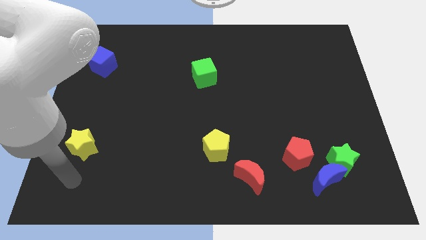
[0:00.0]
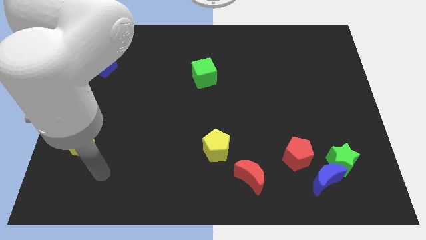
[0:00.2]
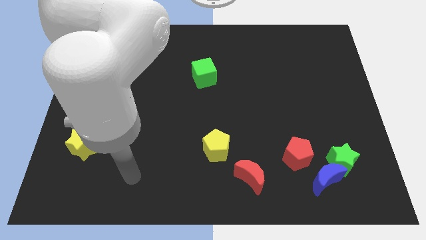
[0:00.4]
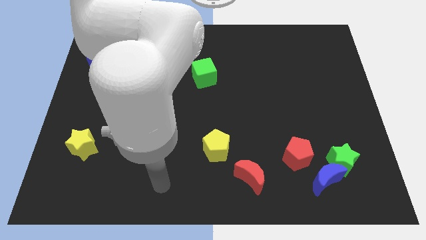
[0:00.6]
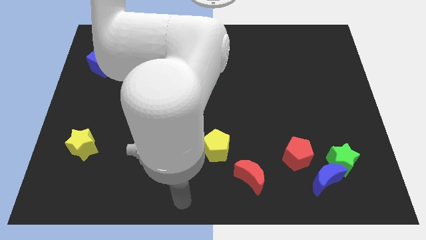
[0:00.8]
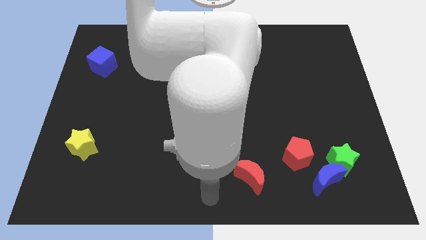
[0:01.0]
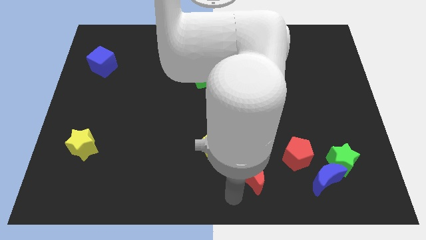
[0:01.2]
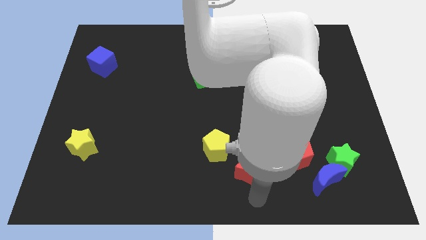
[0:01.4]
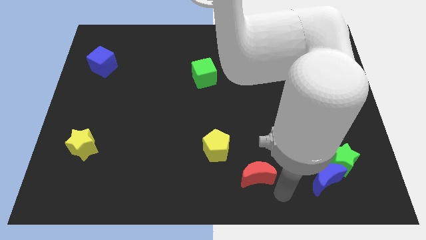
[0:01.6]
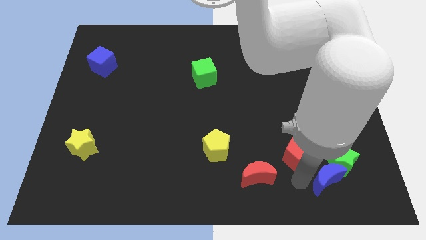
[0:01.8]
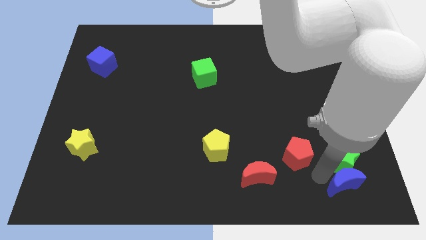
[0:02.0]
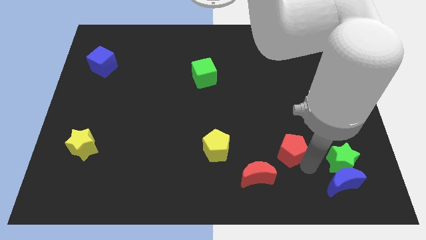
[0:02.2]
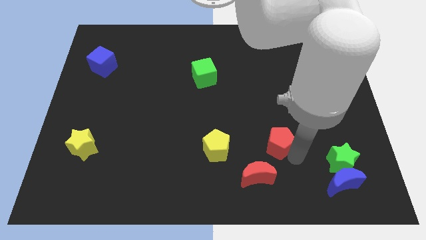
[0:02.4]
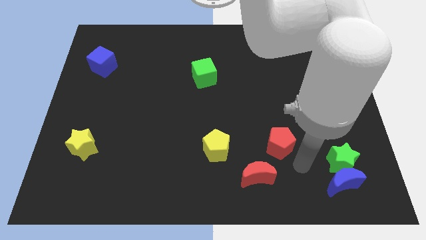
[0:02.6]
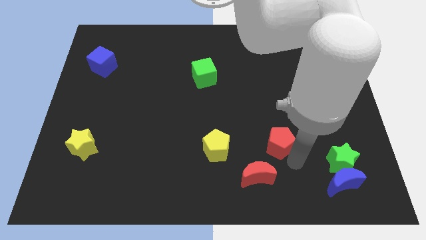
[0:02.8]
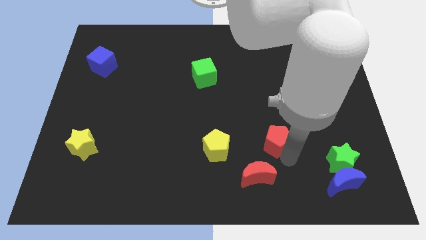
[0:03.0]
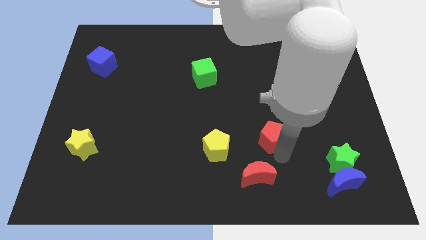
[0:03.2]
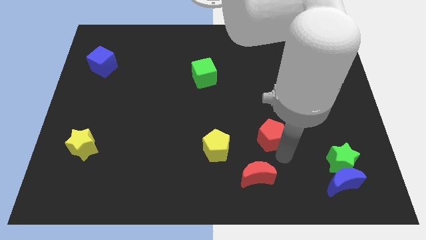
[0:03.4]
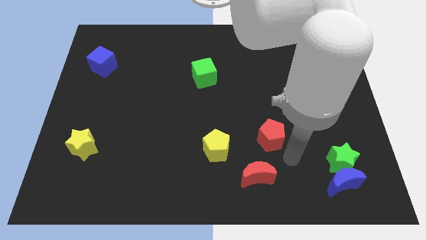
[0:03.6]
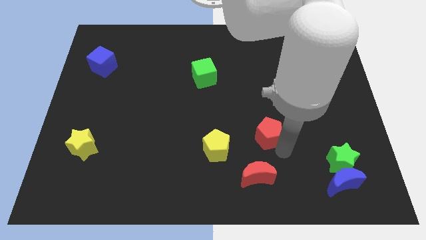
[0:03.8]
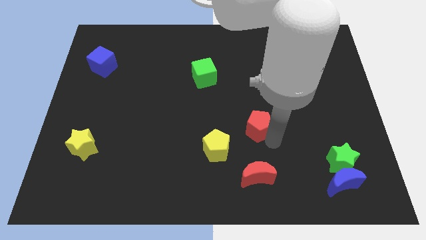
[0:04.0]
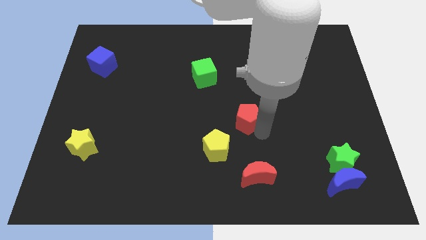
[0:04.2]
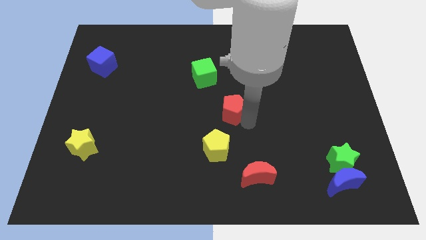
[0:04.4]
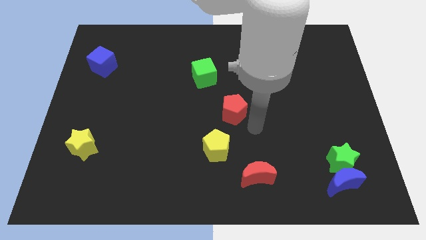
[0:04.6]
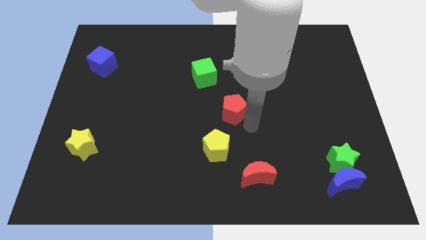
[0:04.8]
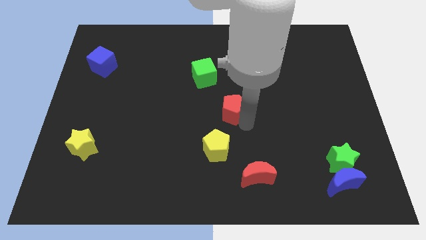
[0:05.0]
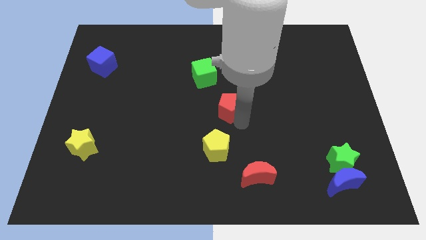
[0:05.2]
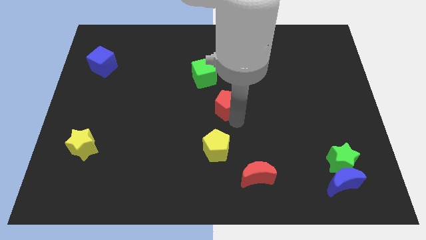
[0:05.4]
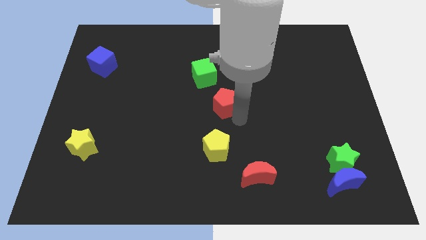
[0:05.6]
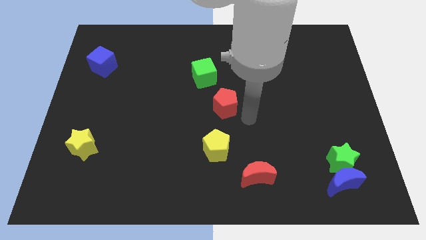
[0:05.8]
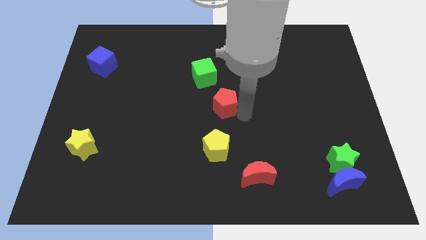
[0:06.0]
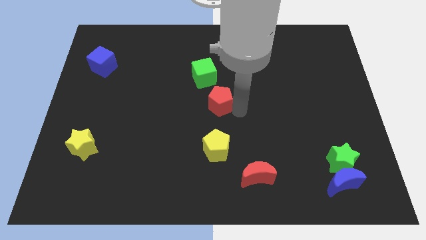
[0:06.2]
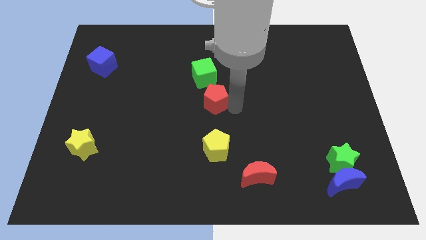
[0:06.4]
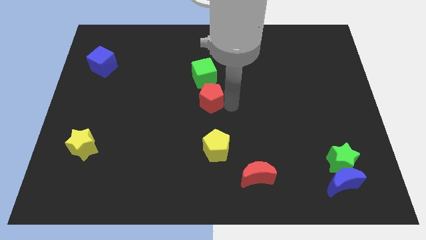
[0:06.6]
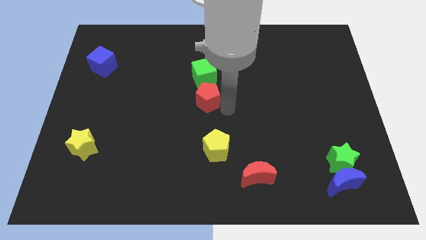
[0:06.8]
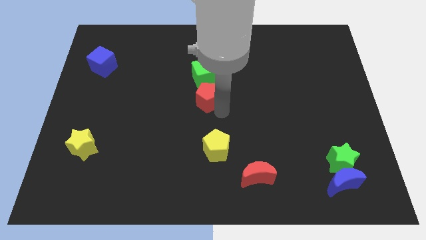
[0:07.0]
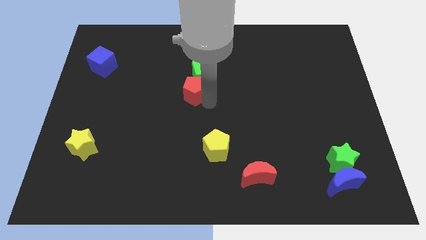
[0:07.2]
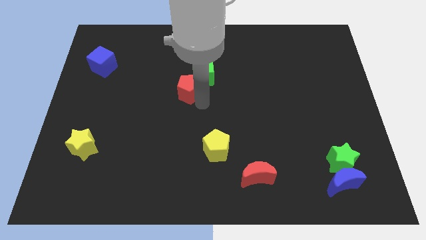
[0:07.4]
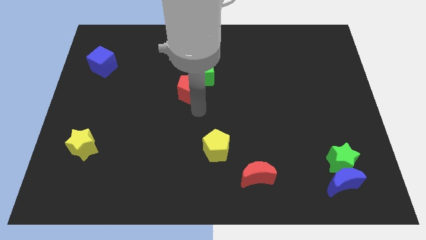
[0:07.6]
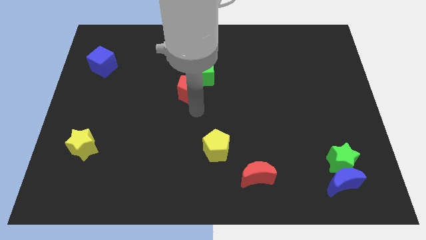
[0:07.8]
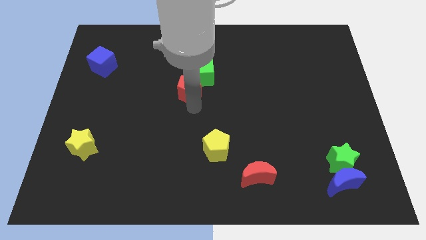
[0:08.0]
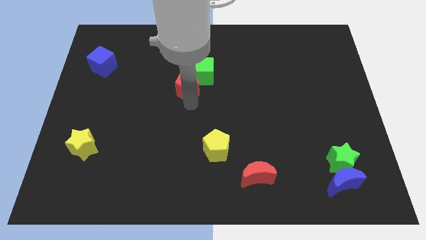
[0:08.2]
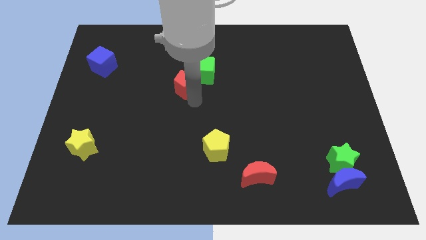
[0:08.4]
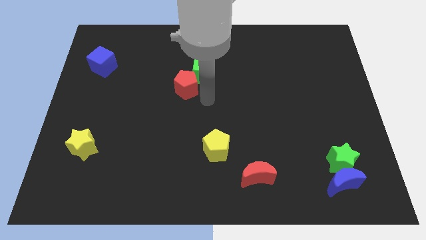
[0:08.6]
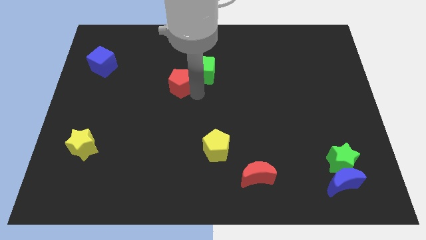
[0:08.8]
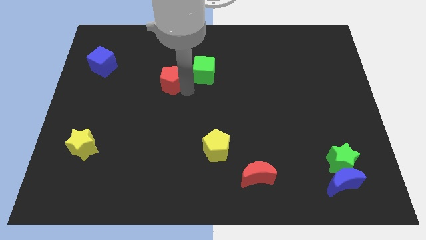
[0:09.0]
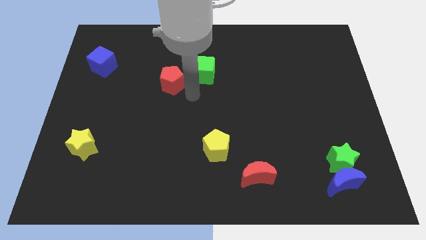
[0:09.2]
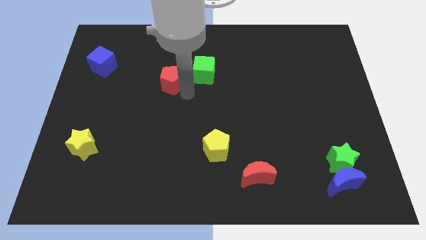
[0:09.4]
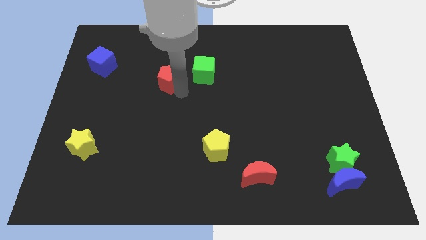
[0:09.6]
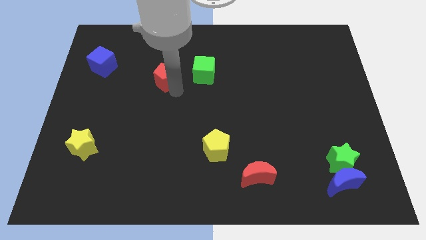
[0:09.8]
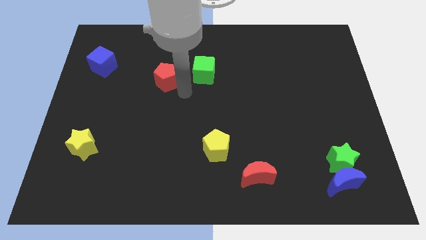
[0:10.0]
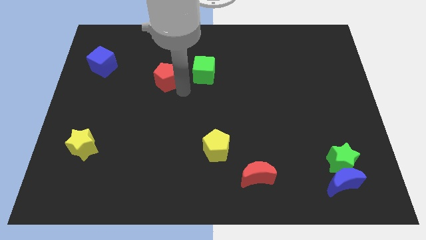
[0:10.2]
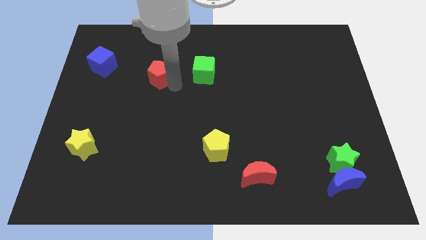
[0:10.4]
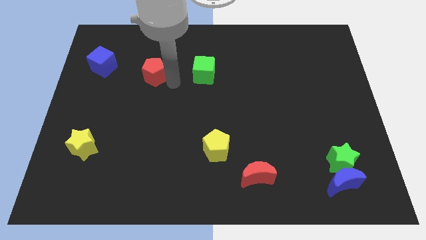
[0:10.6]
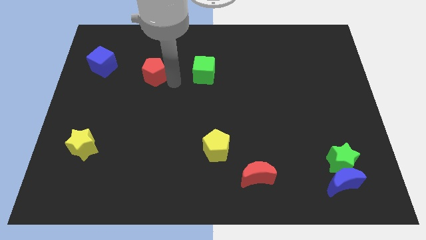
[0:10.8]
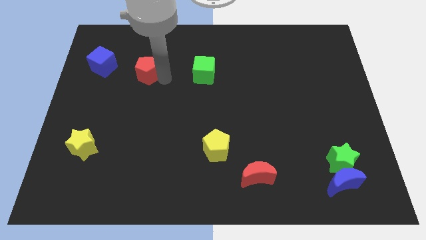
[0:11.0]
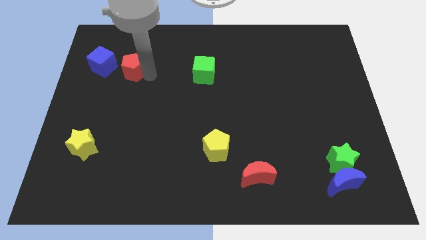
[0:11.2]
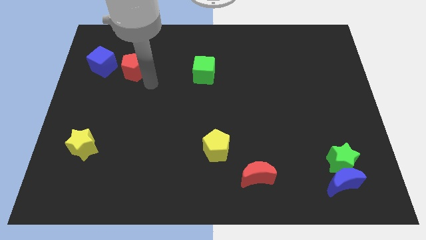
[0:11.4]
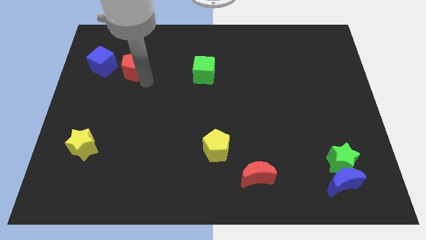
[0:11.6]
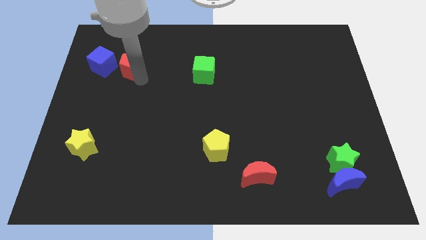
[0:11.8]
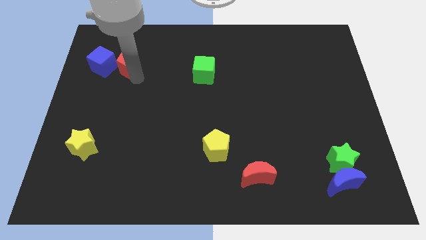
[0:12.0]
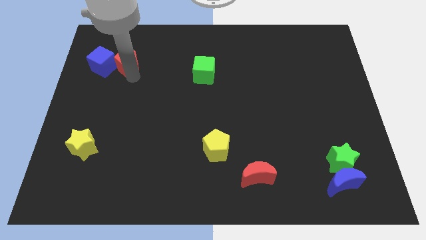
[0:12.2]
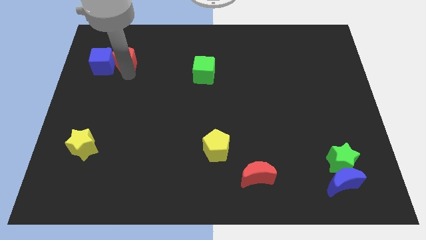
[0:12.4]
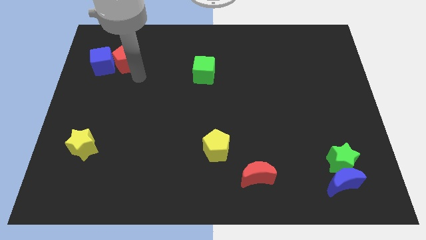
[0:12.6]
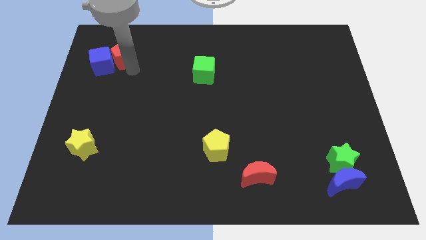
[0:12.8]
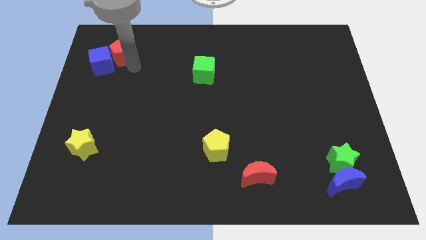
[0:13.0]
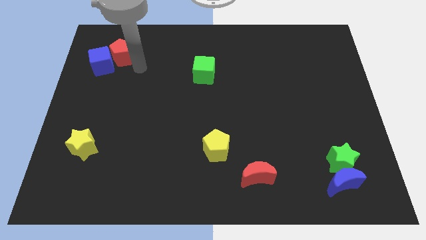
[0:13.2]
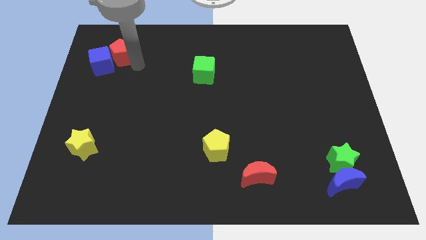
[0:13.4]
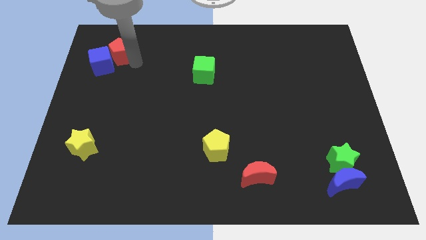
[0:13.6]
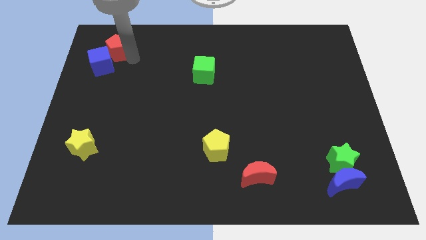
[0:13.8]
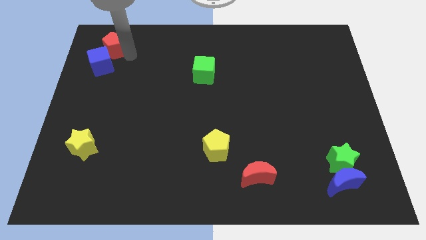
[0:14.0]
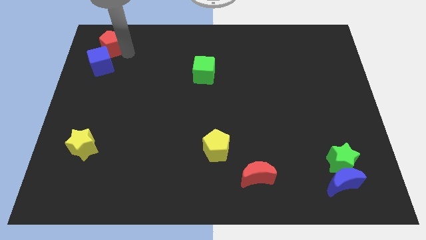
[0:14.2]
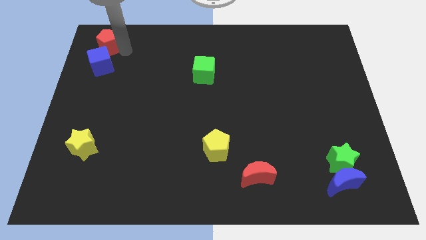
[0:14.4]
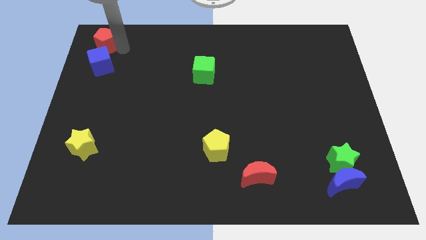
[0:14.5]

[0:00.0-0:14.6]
push the red pentagon to the top left corner
